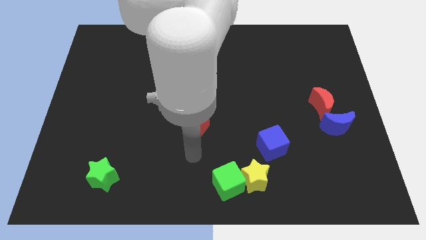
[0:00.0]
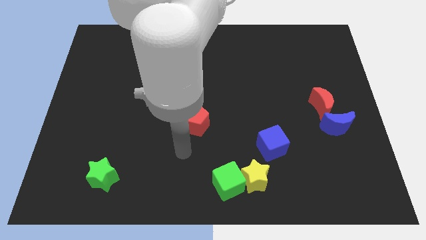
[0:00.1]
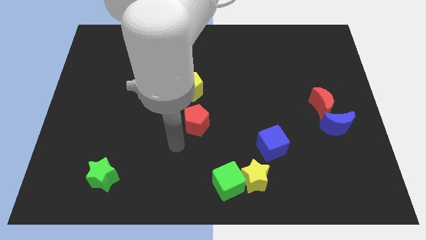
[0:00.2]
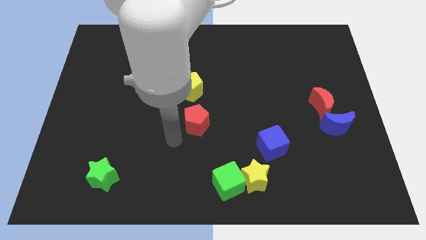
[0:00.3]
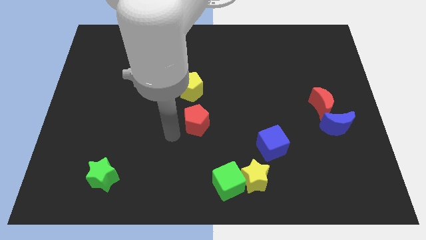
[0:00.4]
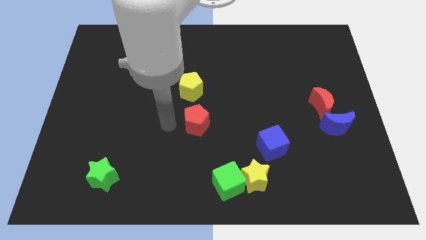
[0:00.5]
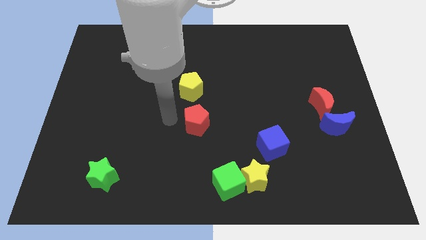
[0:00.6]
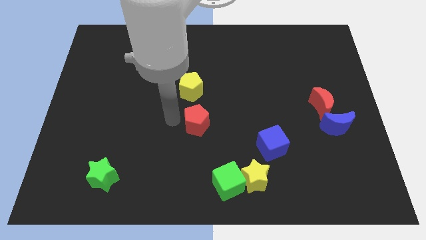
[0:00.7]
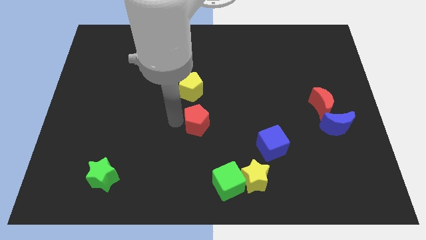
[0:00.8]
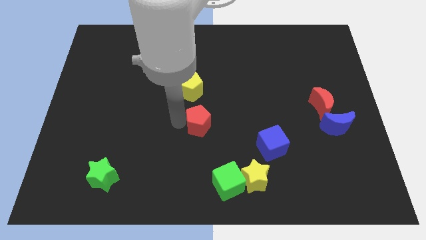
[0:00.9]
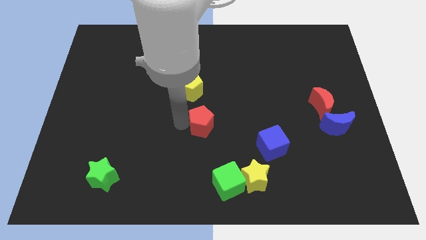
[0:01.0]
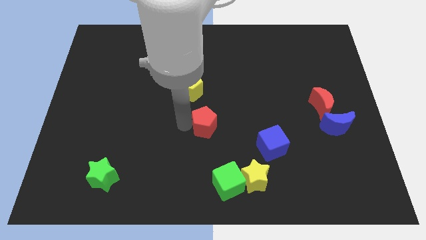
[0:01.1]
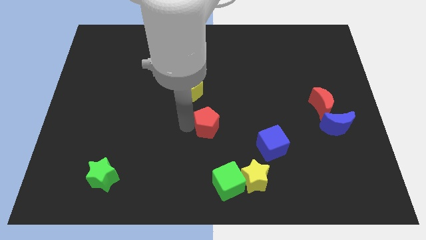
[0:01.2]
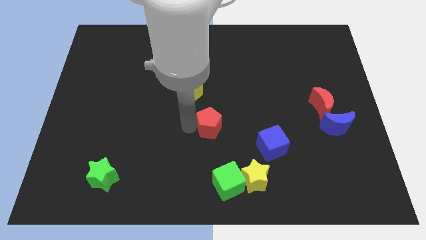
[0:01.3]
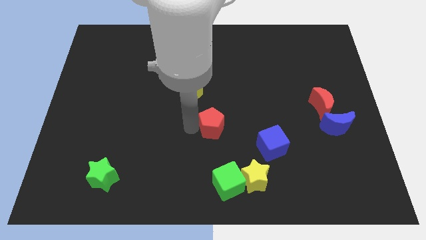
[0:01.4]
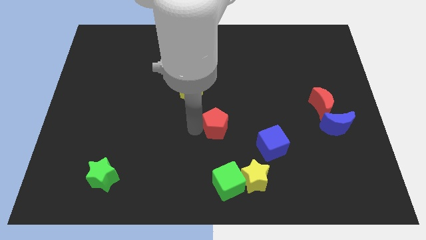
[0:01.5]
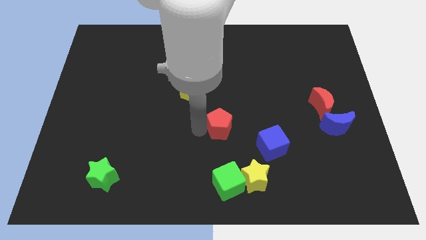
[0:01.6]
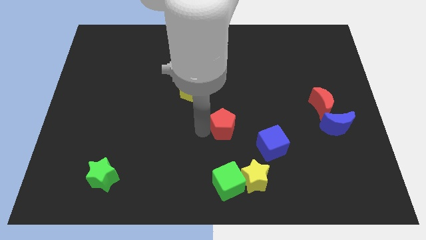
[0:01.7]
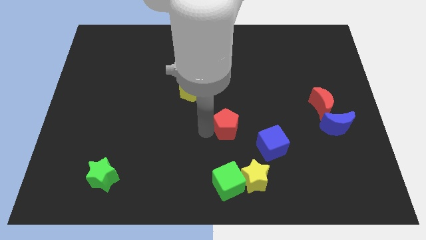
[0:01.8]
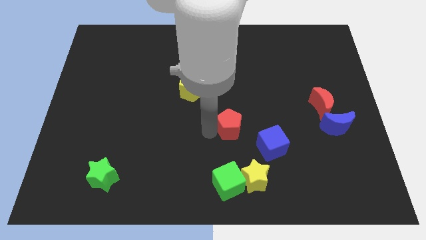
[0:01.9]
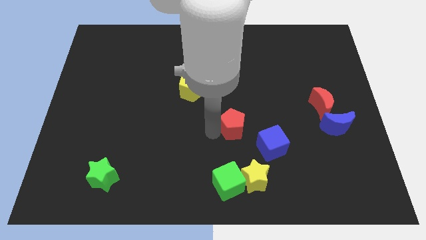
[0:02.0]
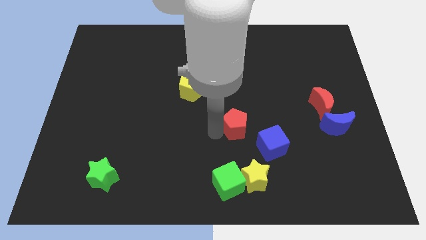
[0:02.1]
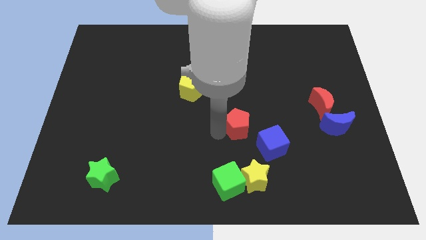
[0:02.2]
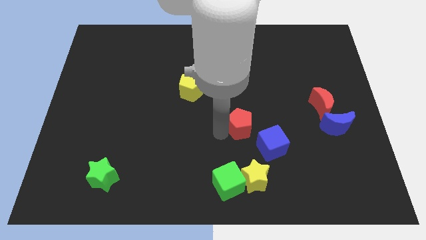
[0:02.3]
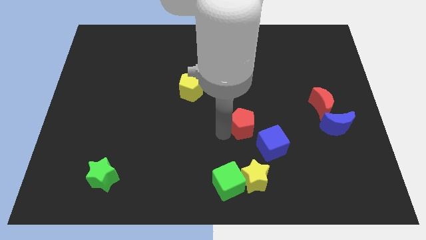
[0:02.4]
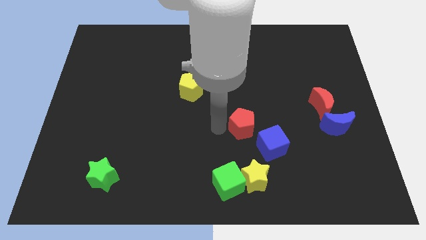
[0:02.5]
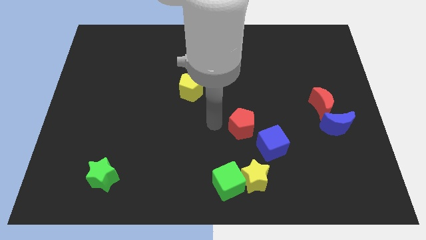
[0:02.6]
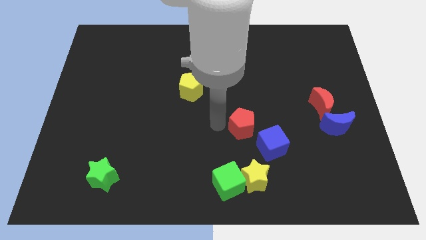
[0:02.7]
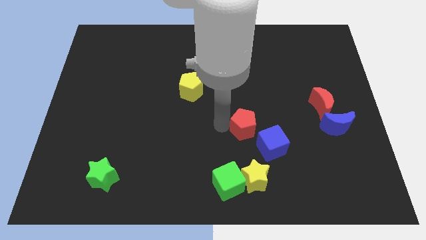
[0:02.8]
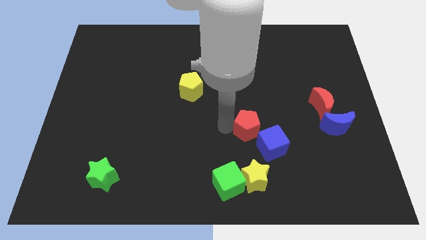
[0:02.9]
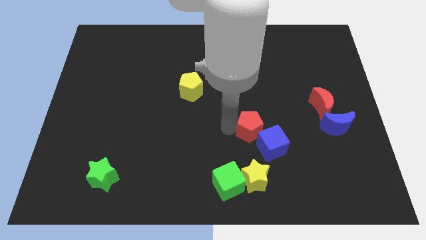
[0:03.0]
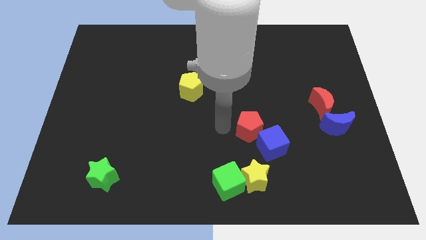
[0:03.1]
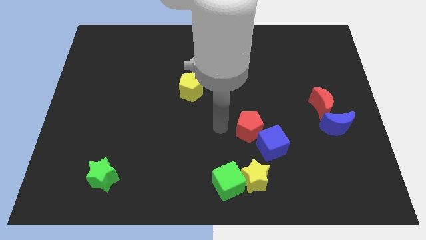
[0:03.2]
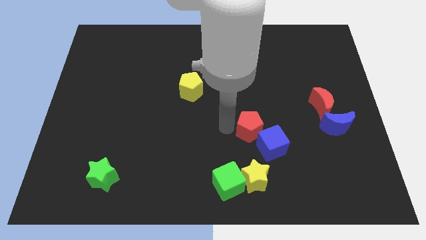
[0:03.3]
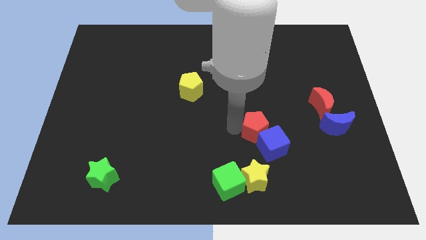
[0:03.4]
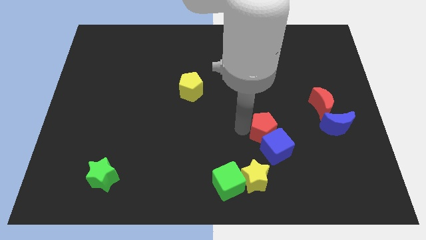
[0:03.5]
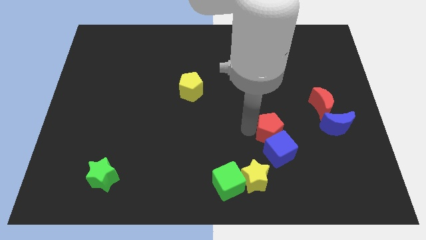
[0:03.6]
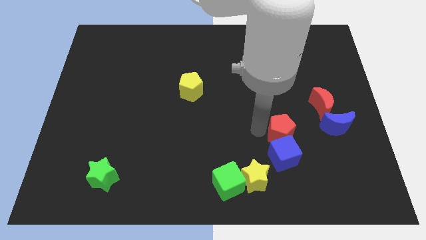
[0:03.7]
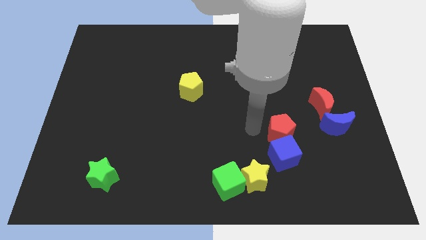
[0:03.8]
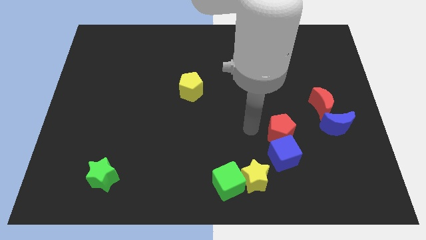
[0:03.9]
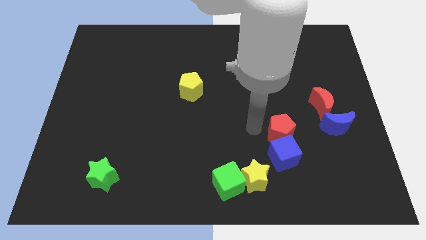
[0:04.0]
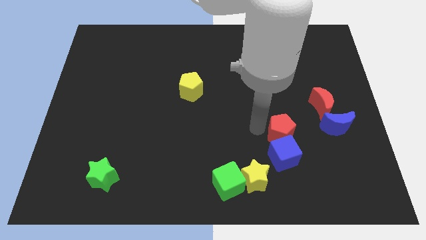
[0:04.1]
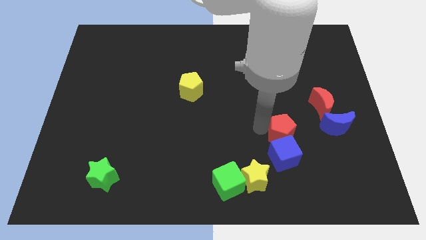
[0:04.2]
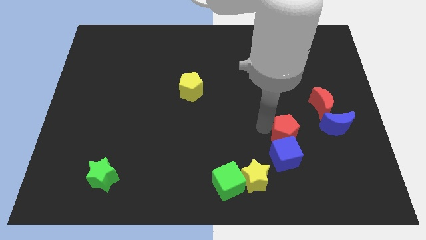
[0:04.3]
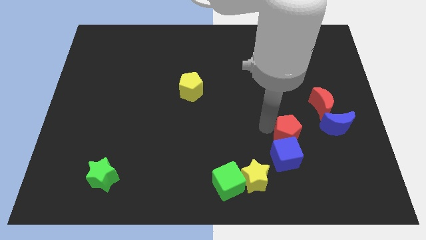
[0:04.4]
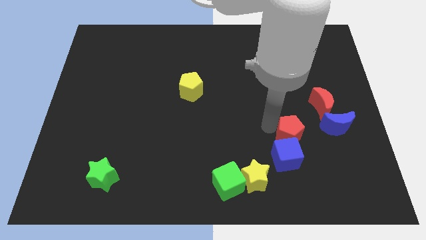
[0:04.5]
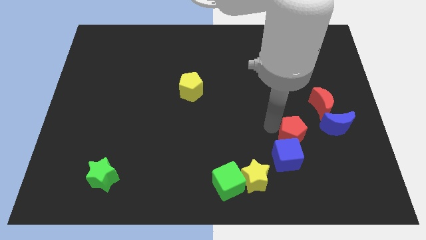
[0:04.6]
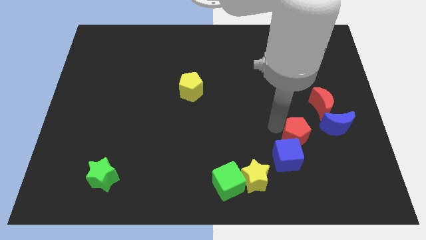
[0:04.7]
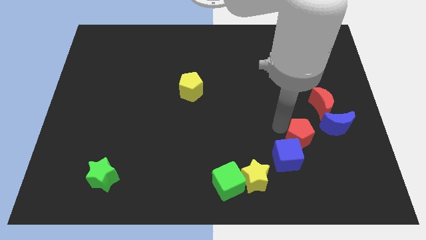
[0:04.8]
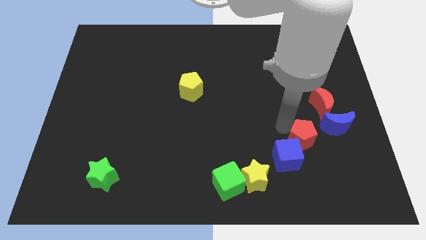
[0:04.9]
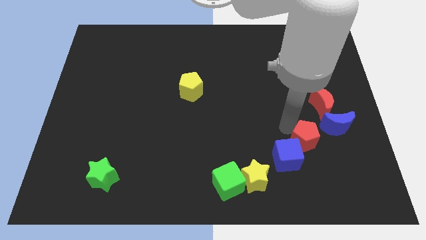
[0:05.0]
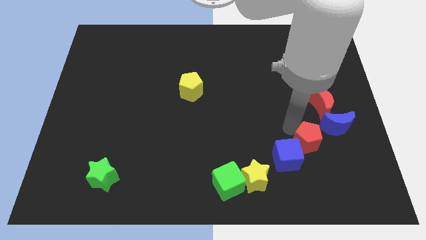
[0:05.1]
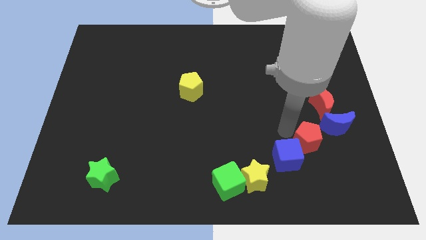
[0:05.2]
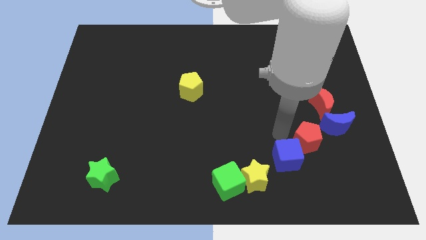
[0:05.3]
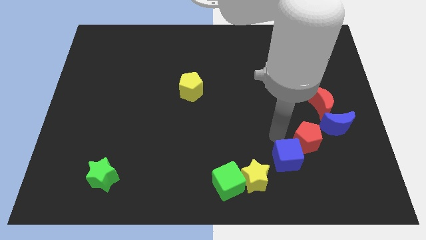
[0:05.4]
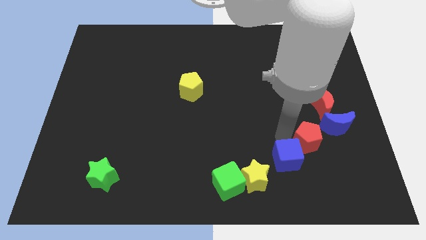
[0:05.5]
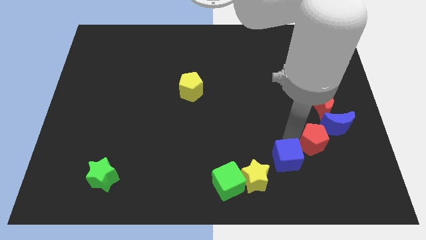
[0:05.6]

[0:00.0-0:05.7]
slide the red pentagon to the bottom side of the red moon
